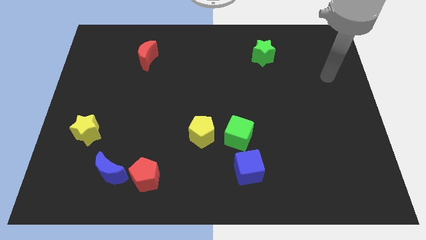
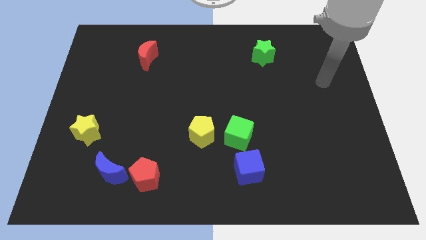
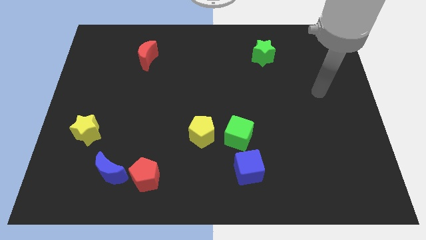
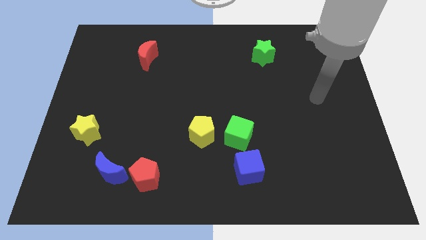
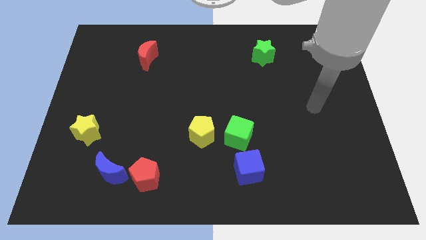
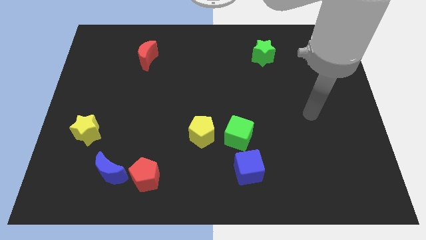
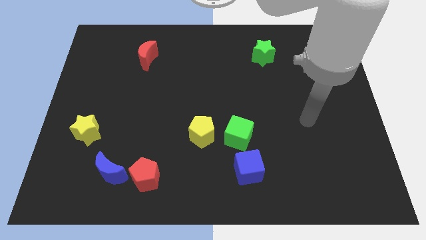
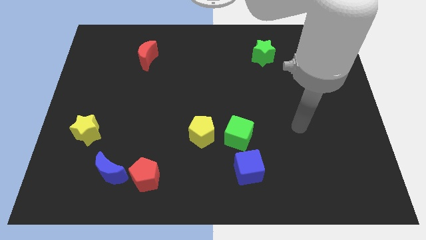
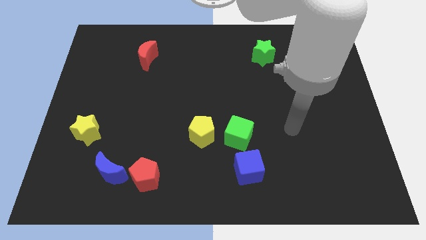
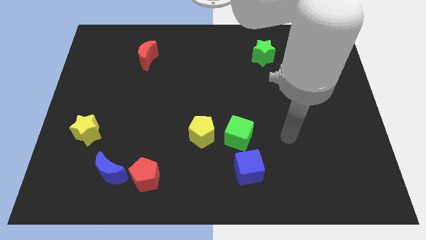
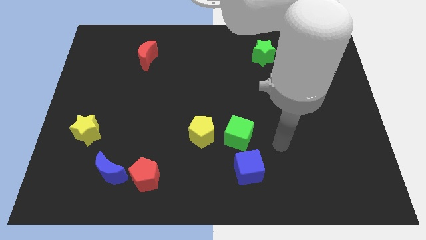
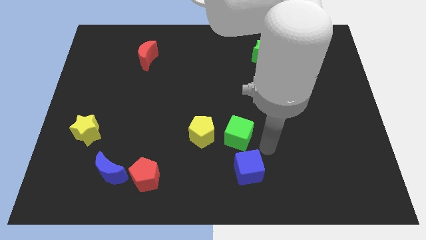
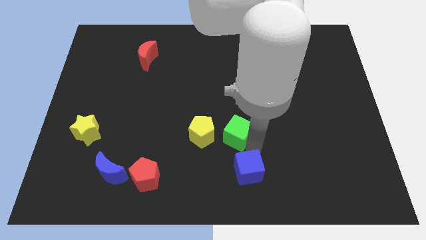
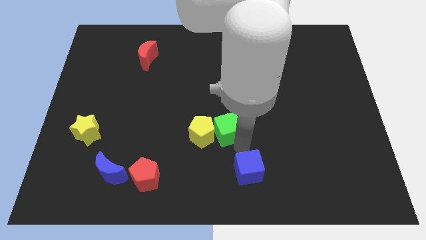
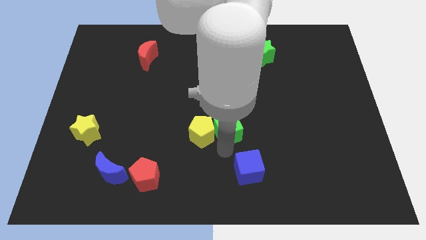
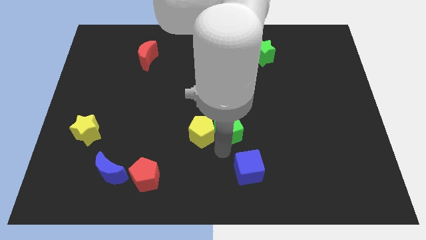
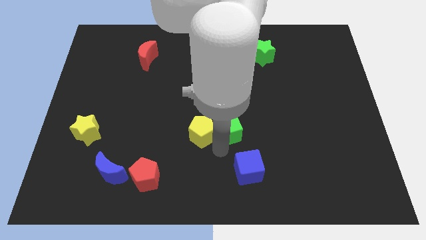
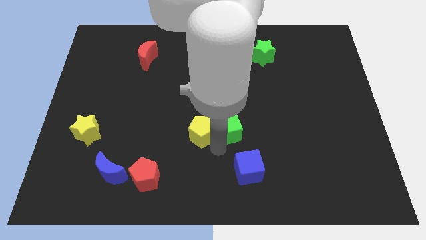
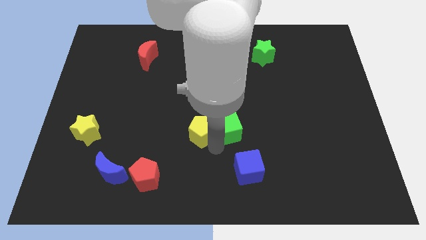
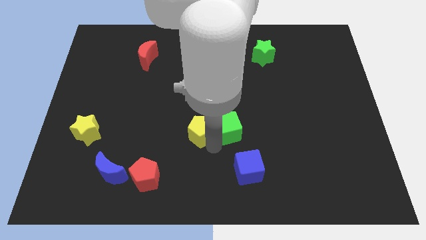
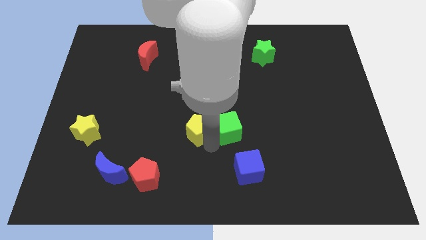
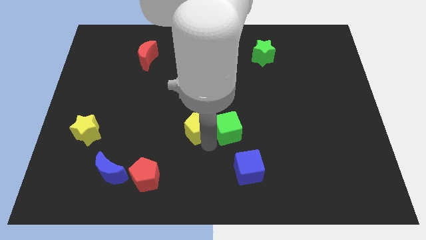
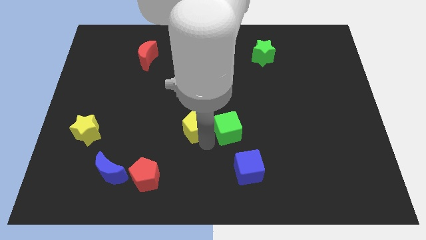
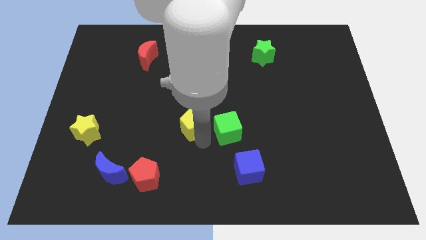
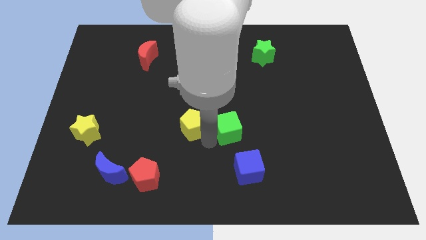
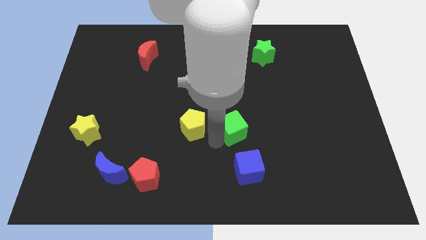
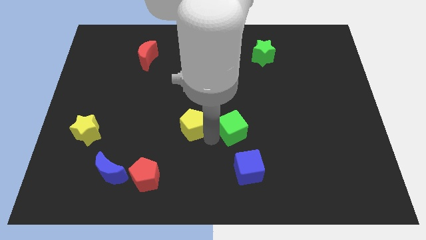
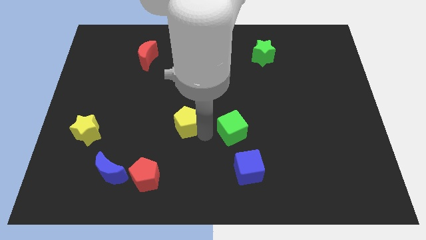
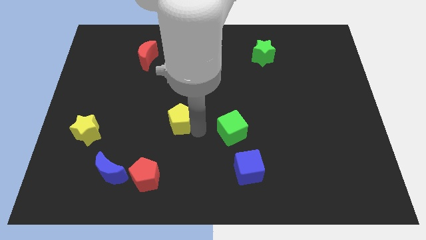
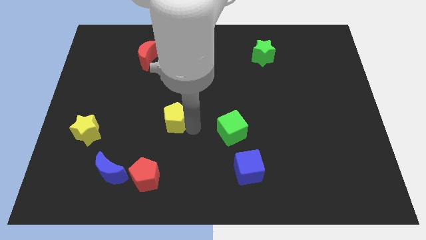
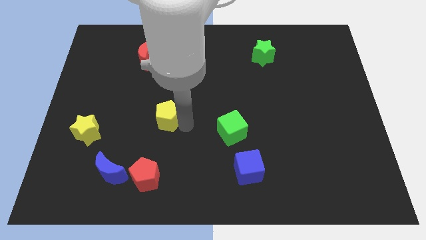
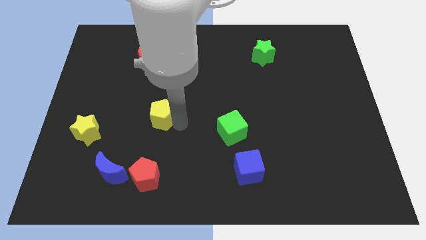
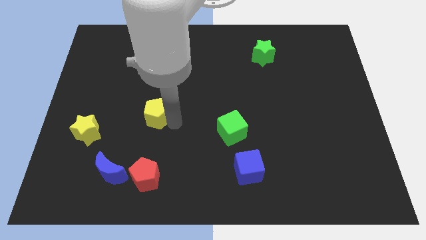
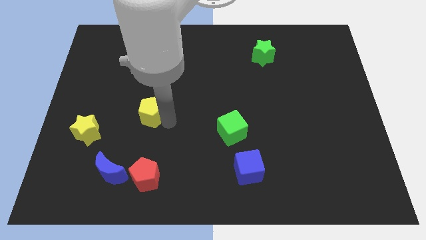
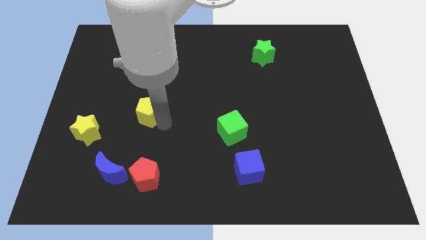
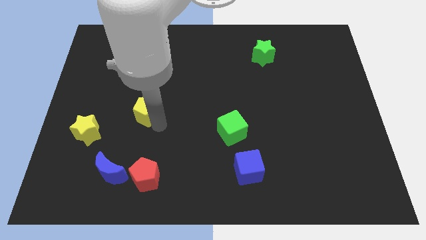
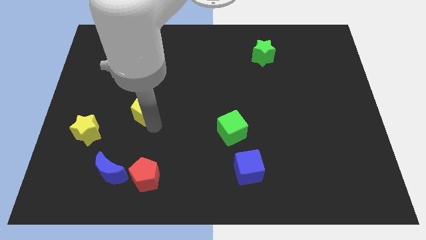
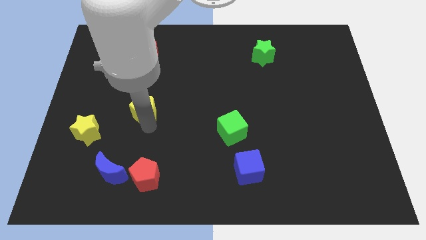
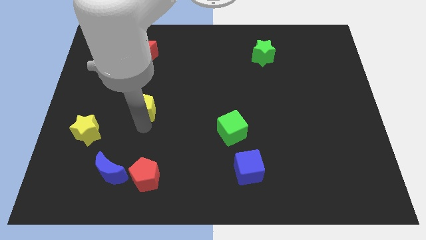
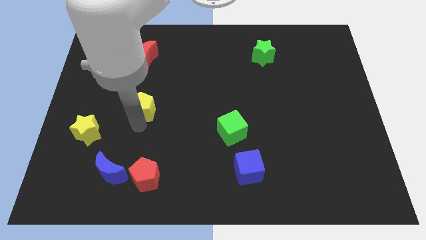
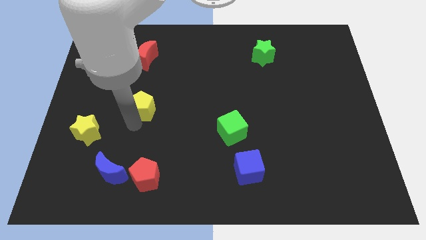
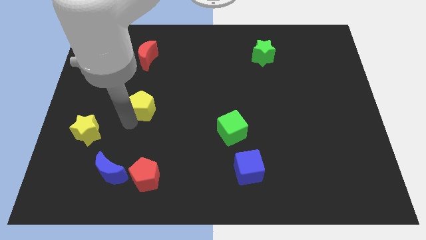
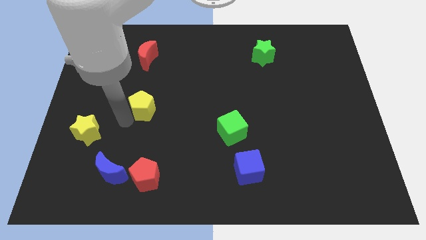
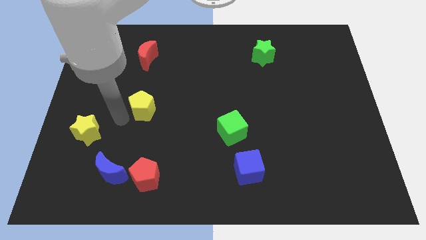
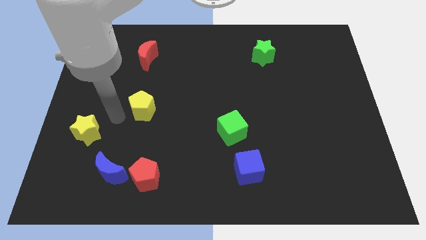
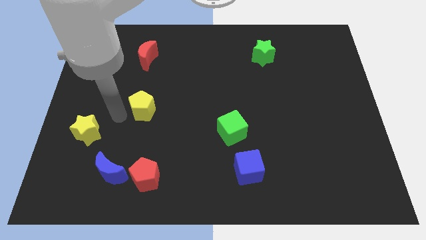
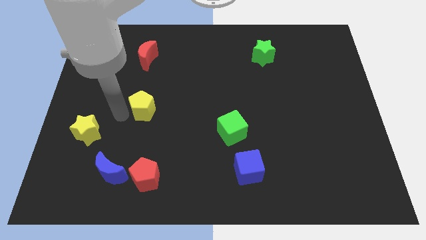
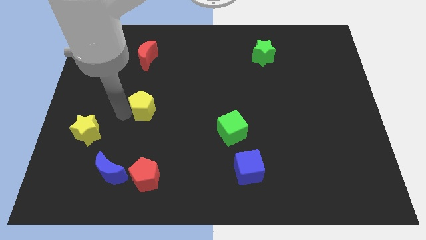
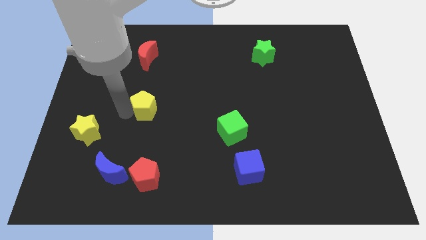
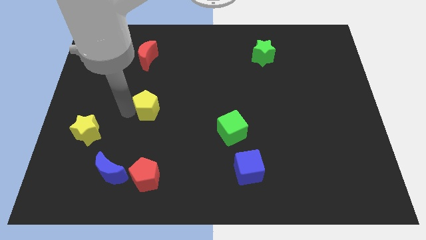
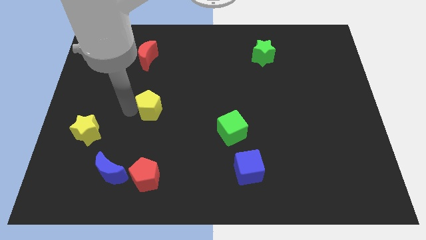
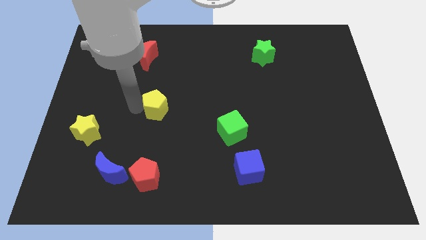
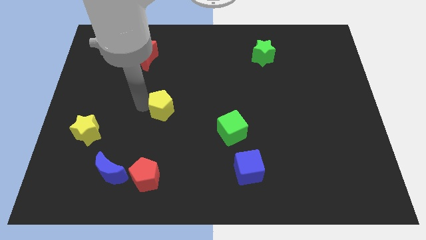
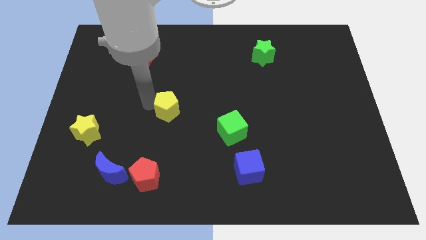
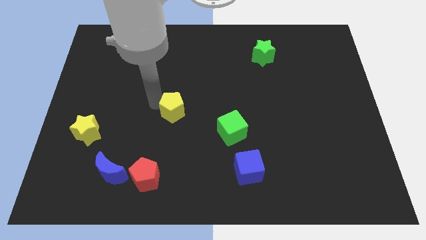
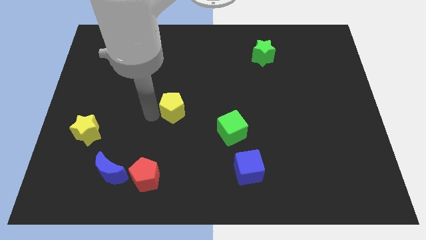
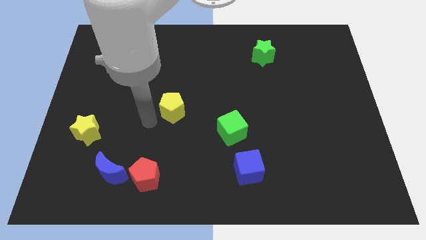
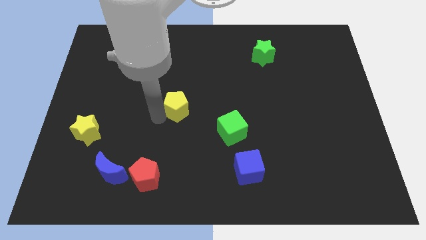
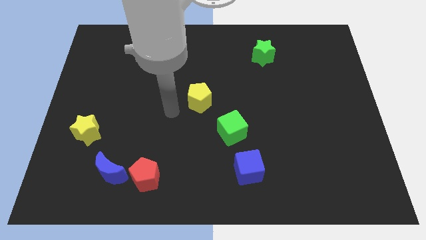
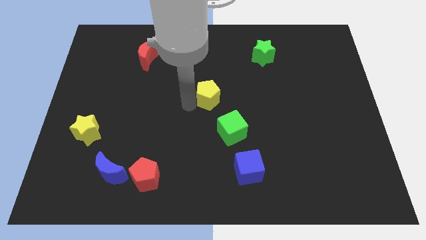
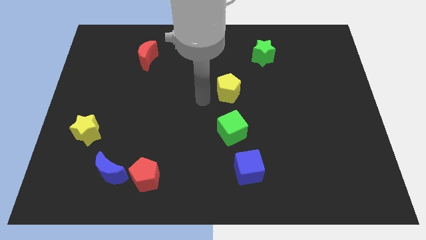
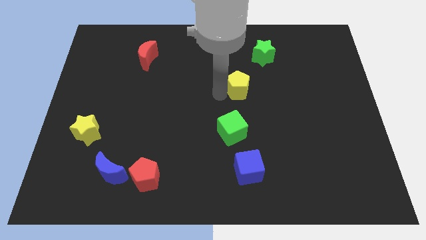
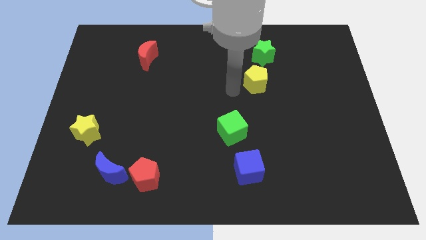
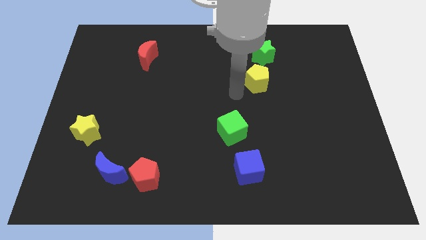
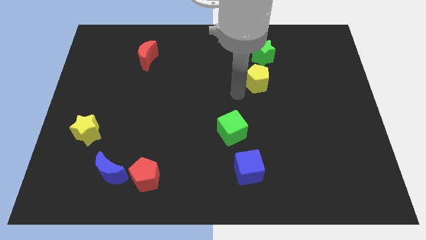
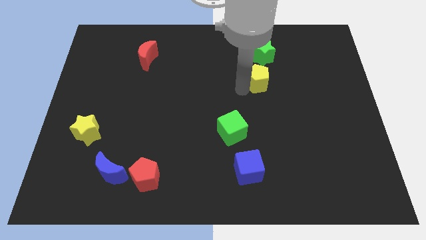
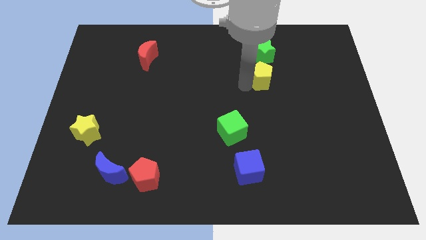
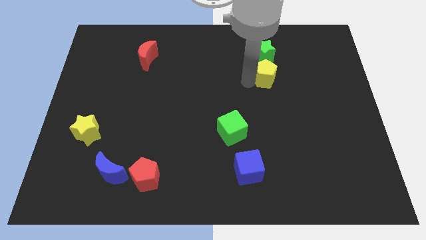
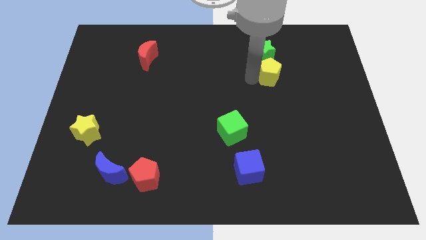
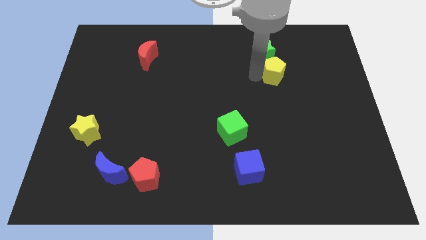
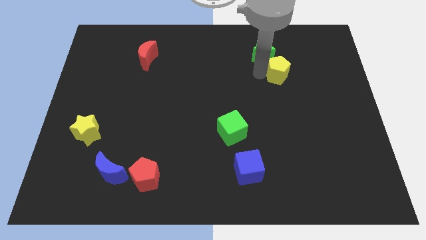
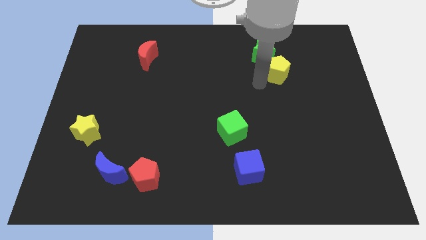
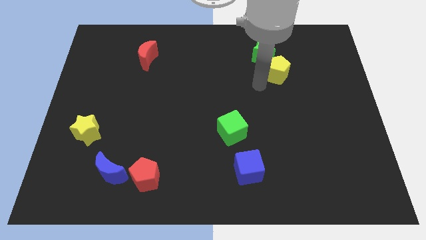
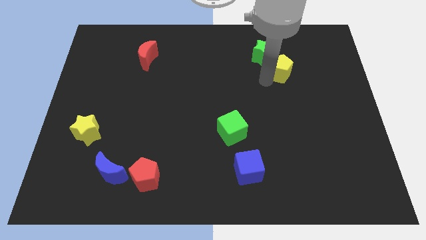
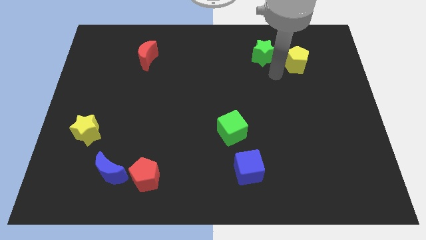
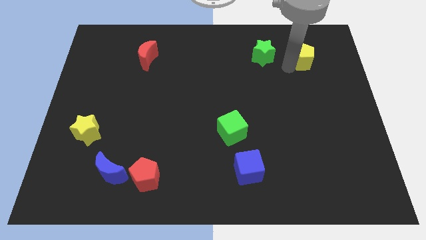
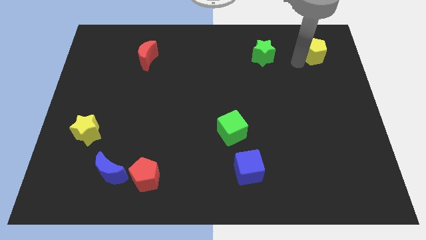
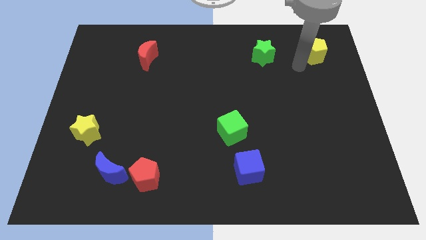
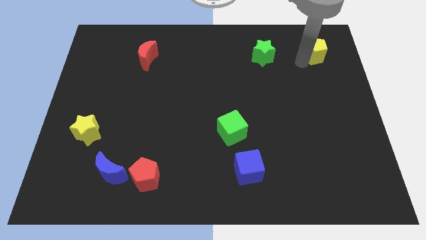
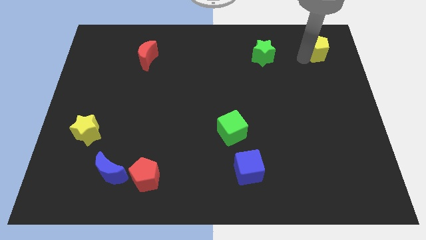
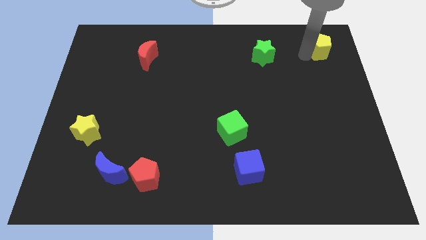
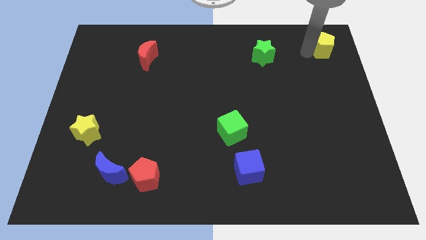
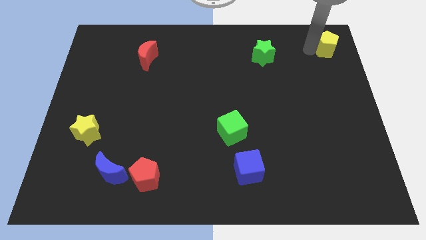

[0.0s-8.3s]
slide the yellow pentagon to the top right of the board
